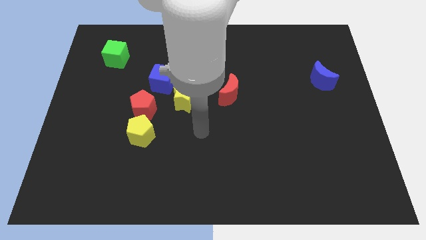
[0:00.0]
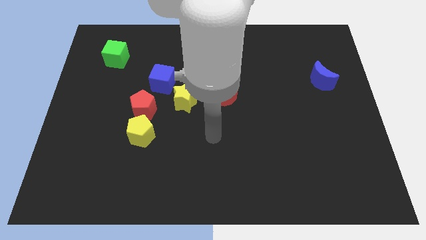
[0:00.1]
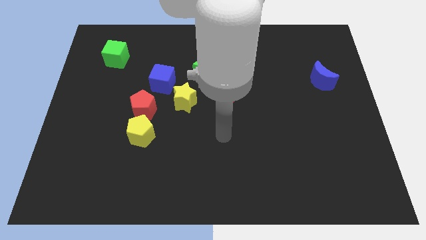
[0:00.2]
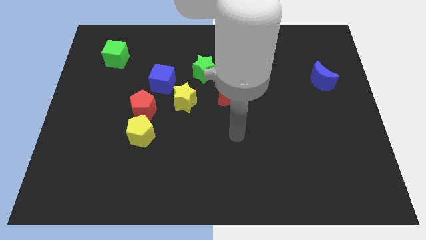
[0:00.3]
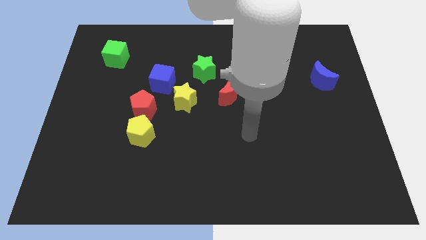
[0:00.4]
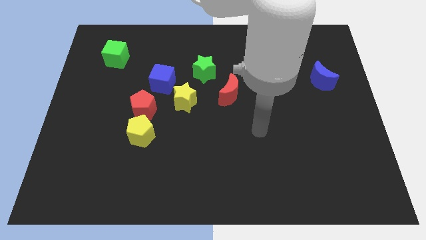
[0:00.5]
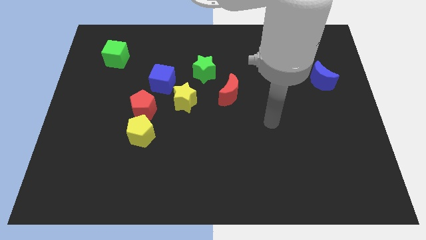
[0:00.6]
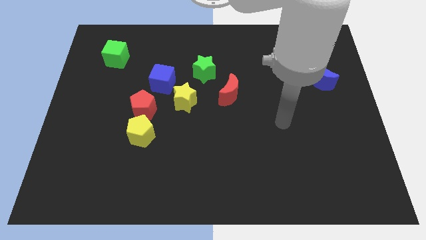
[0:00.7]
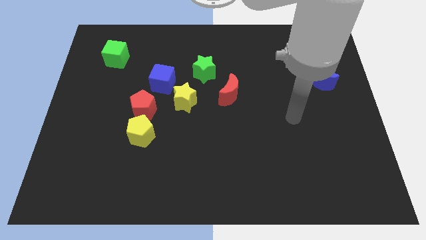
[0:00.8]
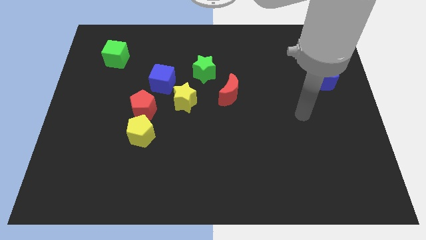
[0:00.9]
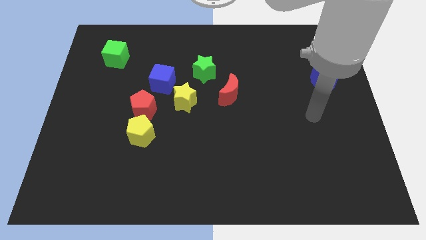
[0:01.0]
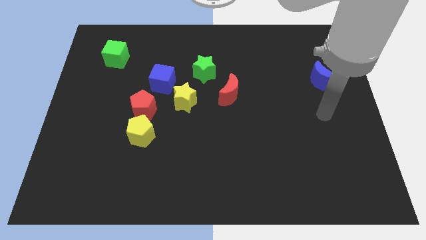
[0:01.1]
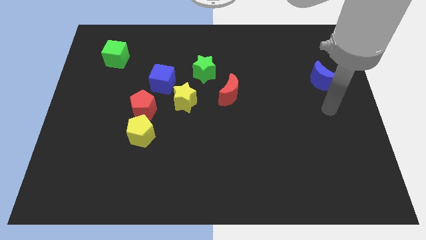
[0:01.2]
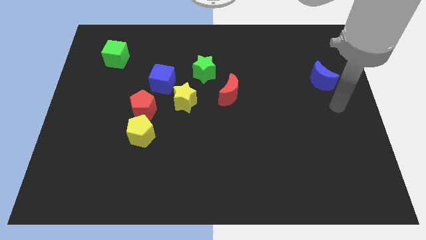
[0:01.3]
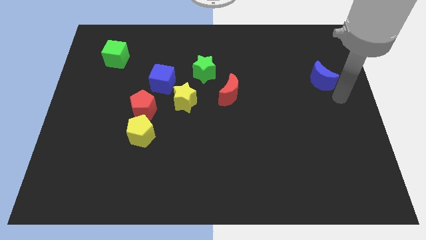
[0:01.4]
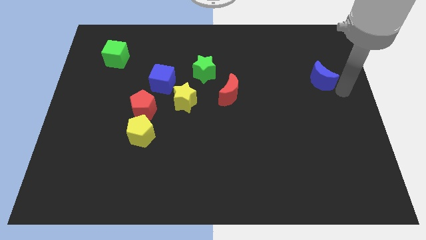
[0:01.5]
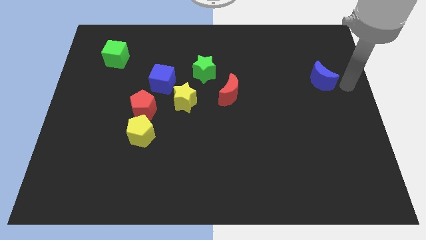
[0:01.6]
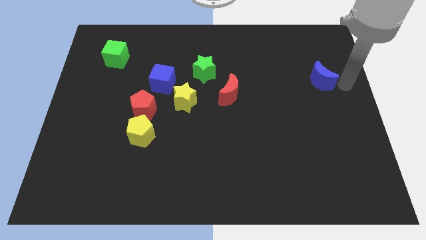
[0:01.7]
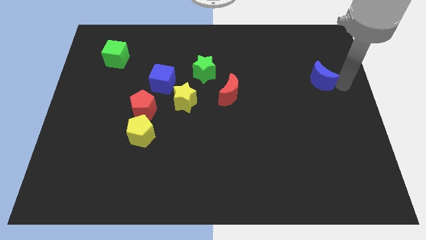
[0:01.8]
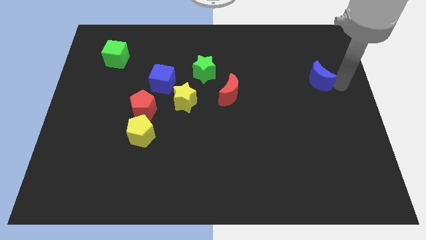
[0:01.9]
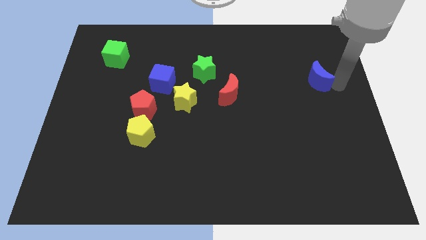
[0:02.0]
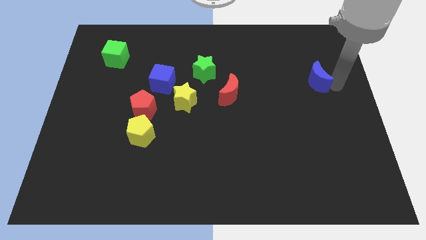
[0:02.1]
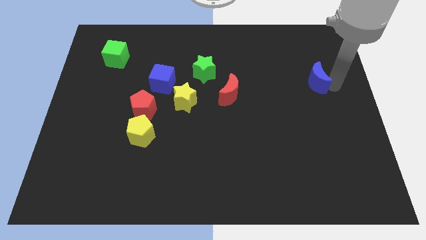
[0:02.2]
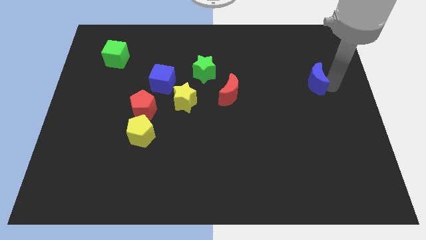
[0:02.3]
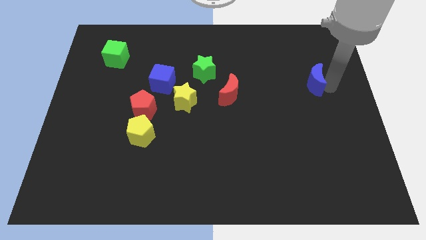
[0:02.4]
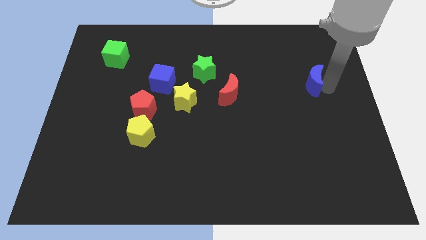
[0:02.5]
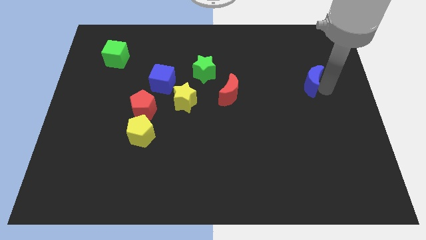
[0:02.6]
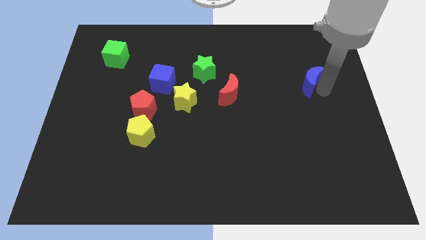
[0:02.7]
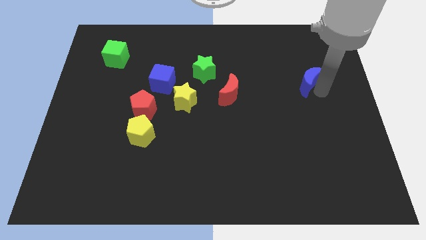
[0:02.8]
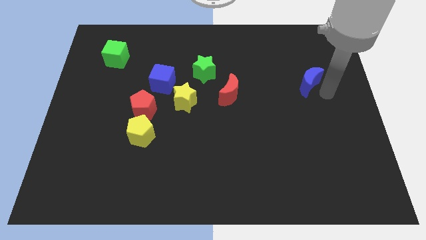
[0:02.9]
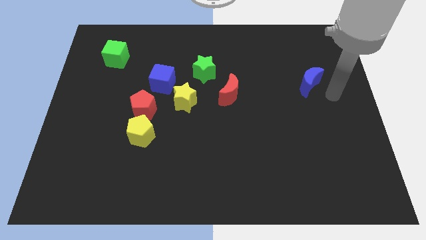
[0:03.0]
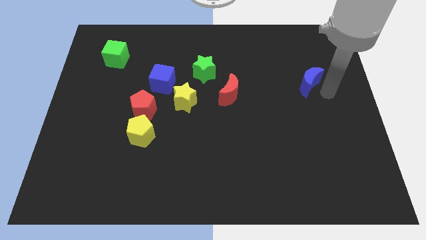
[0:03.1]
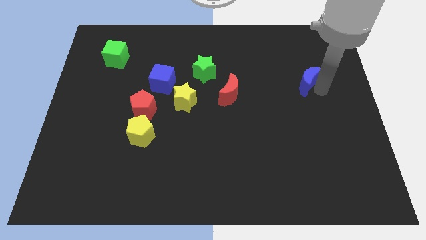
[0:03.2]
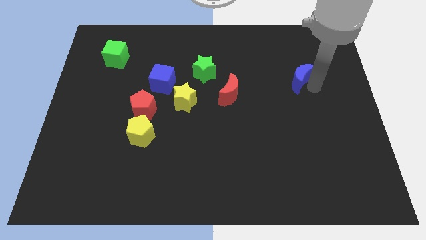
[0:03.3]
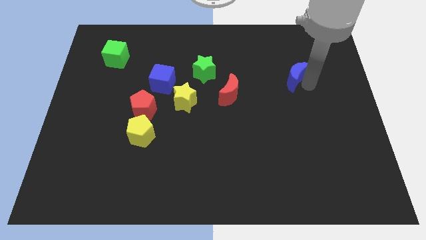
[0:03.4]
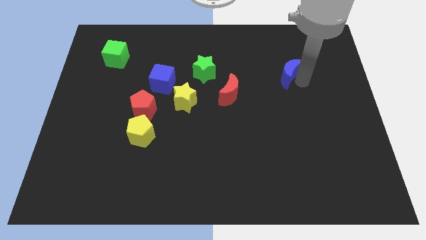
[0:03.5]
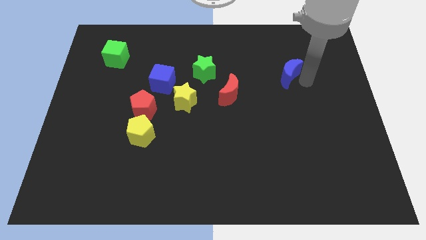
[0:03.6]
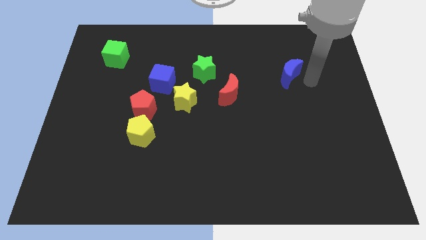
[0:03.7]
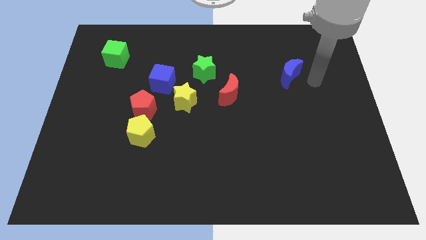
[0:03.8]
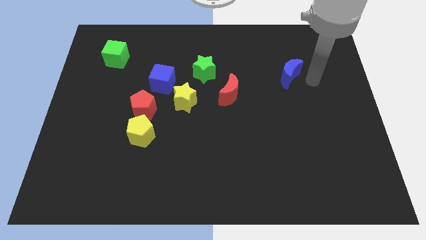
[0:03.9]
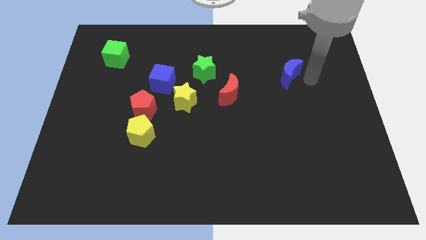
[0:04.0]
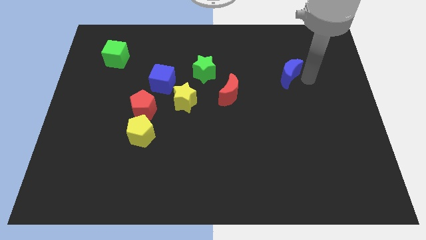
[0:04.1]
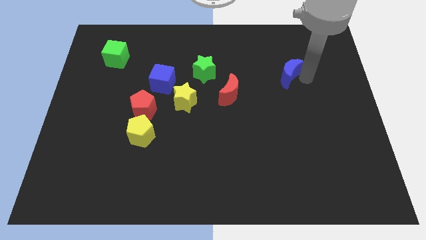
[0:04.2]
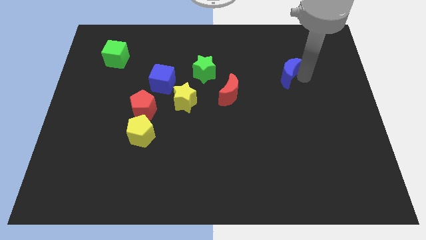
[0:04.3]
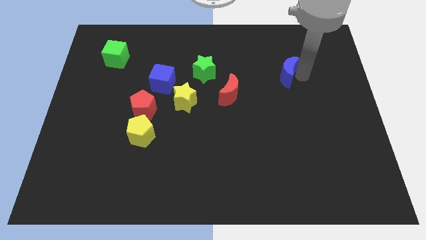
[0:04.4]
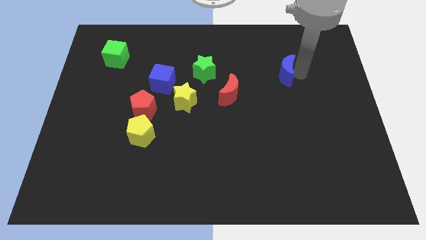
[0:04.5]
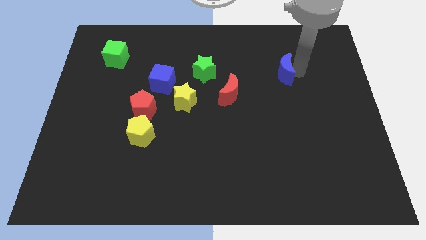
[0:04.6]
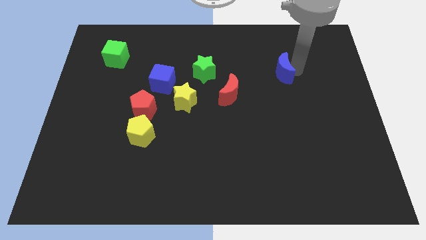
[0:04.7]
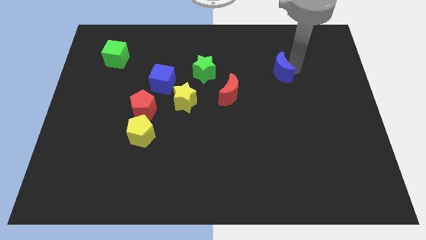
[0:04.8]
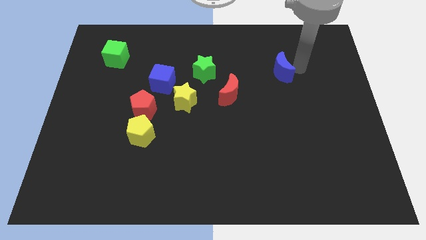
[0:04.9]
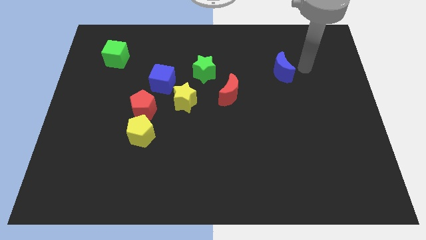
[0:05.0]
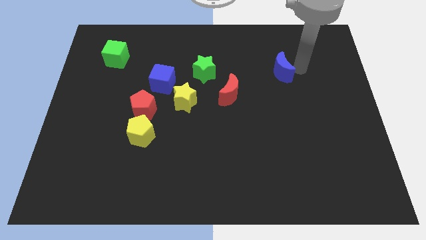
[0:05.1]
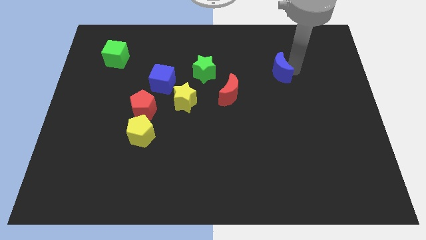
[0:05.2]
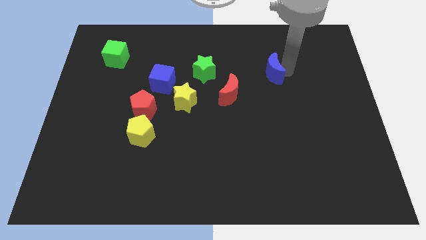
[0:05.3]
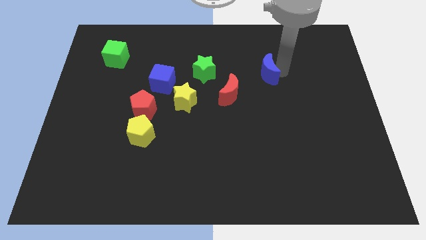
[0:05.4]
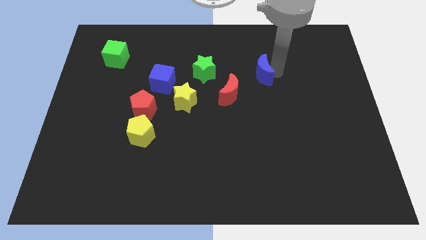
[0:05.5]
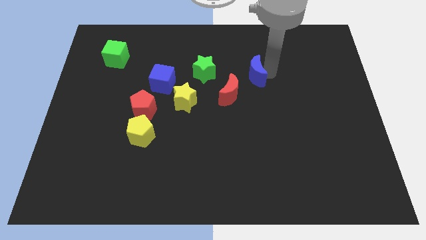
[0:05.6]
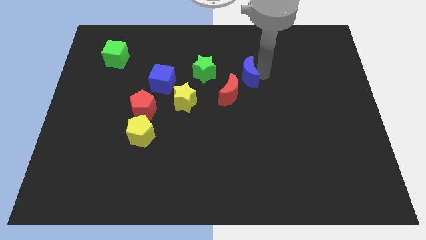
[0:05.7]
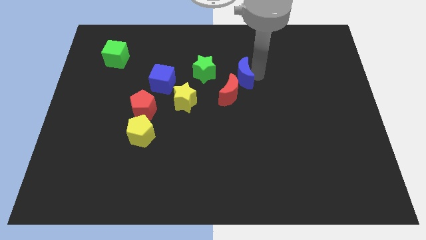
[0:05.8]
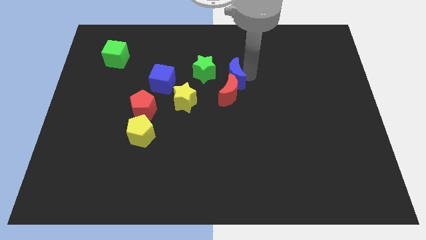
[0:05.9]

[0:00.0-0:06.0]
slide the blue moon left

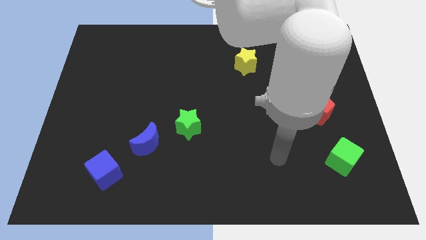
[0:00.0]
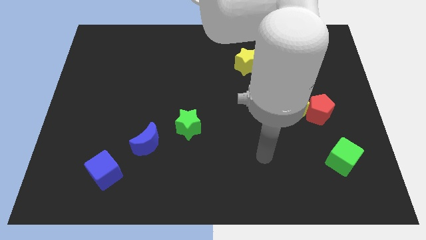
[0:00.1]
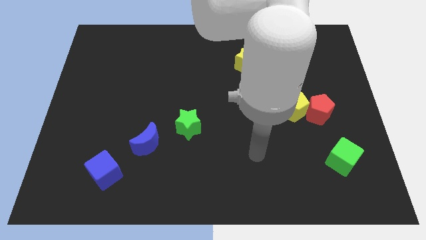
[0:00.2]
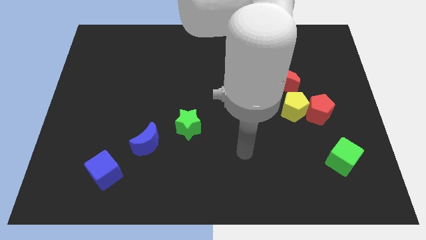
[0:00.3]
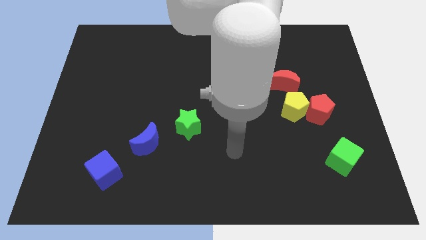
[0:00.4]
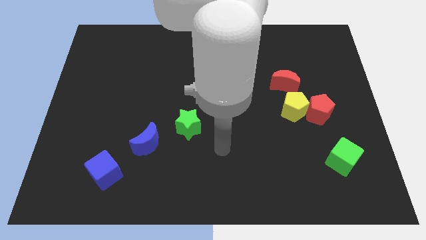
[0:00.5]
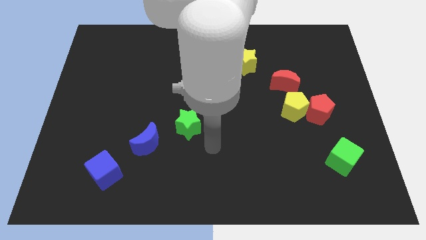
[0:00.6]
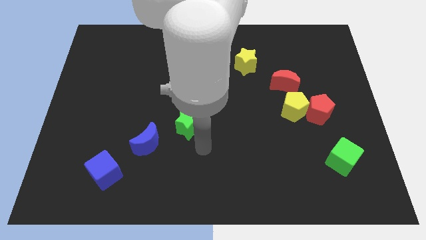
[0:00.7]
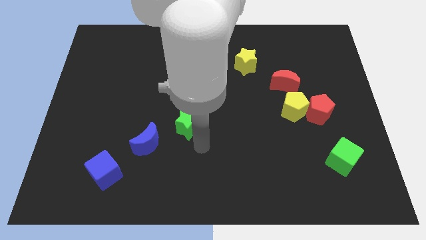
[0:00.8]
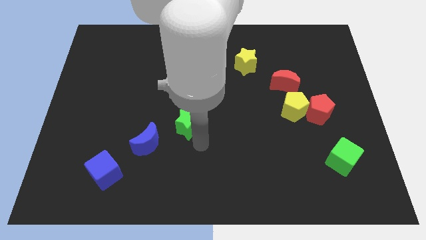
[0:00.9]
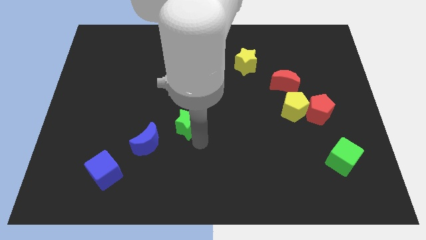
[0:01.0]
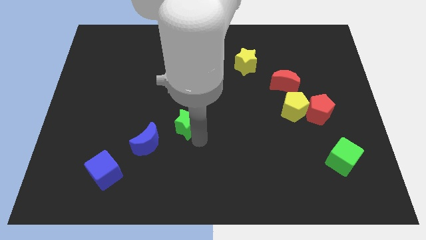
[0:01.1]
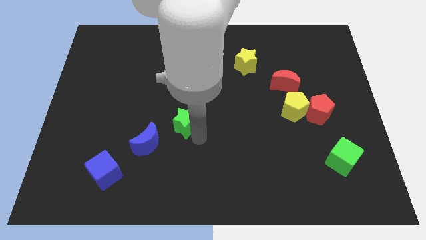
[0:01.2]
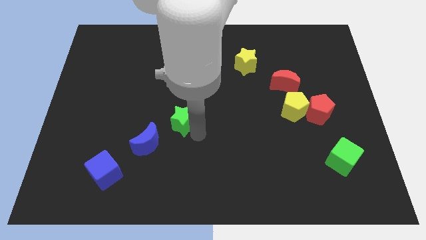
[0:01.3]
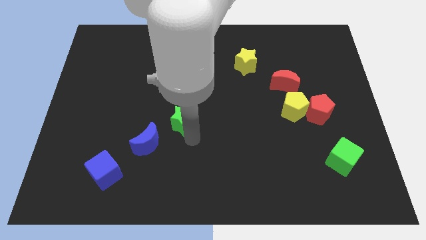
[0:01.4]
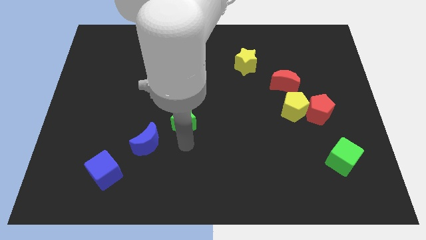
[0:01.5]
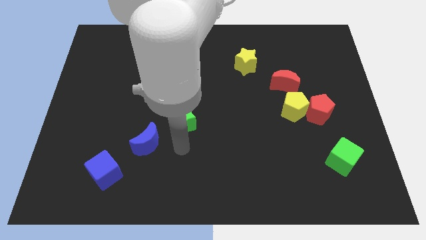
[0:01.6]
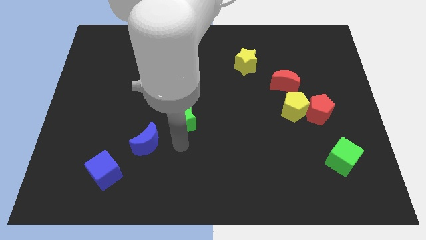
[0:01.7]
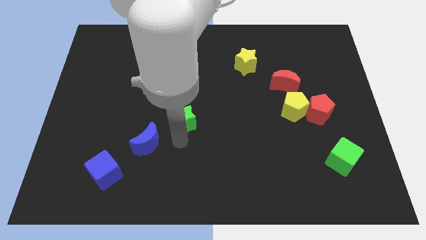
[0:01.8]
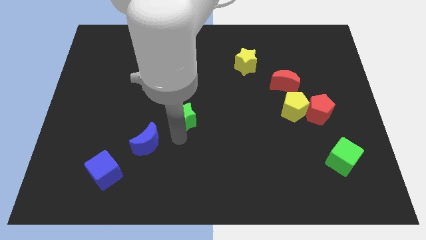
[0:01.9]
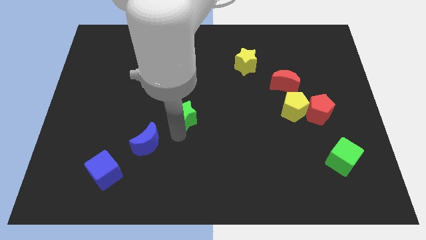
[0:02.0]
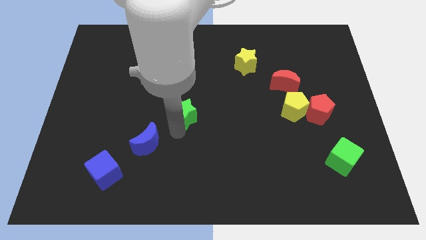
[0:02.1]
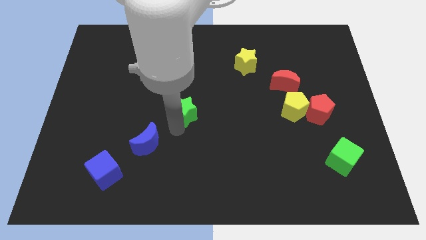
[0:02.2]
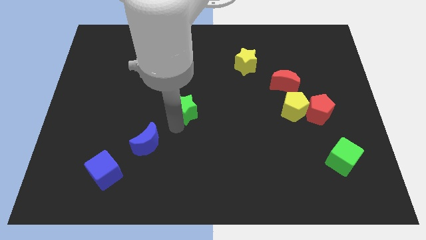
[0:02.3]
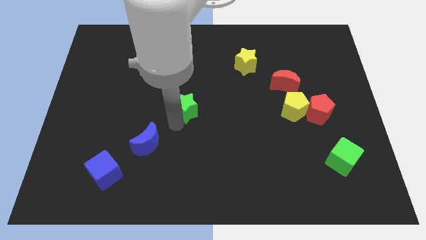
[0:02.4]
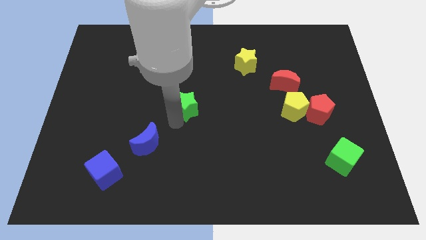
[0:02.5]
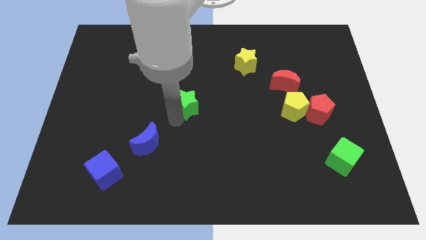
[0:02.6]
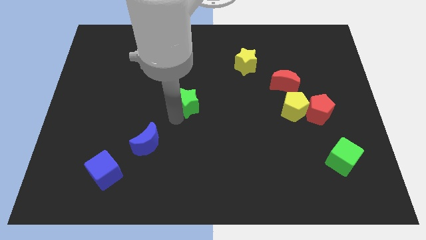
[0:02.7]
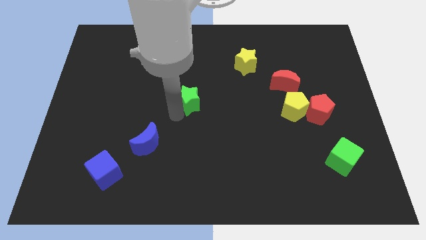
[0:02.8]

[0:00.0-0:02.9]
move the green star somewhat up
